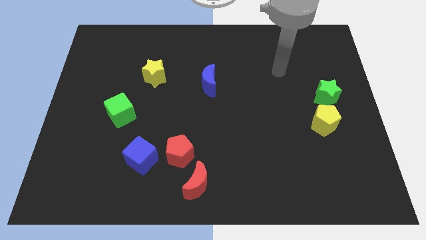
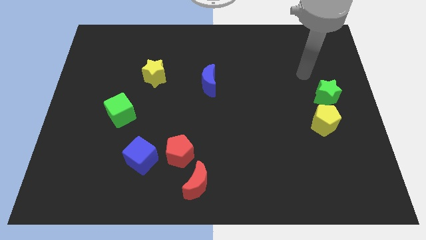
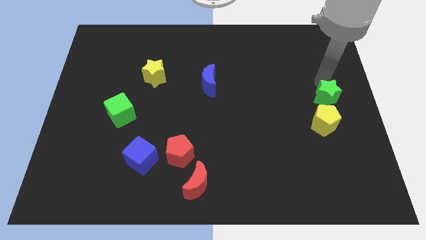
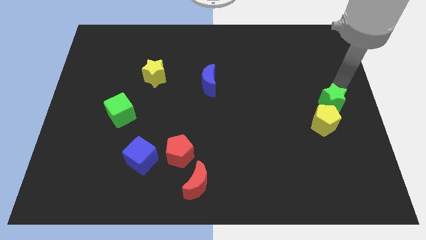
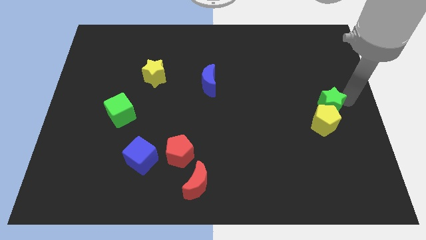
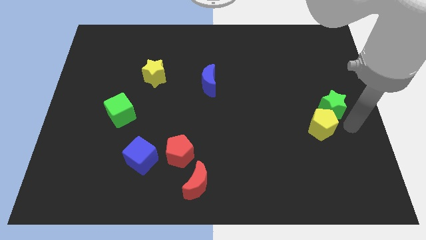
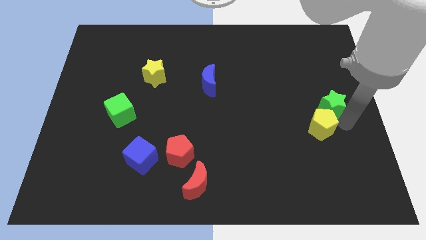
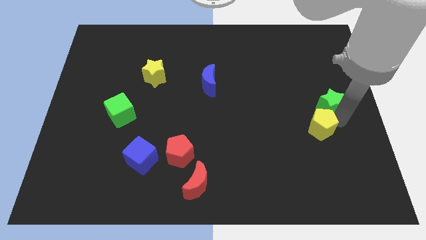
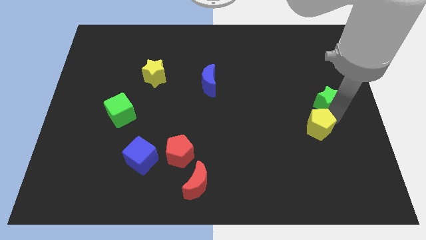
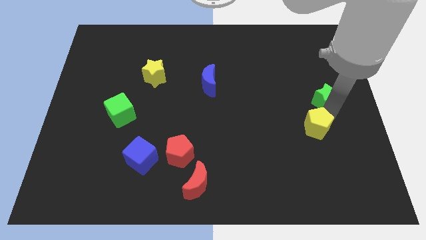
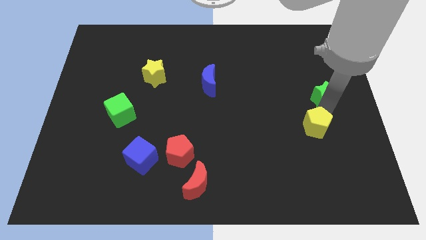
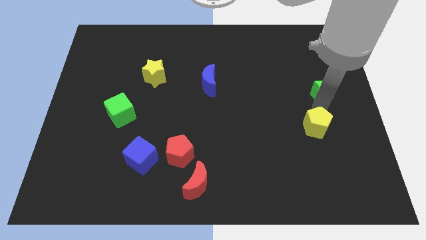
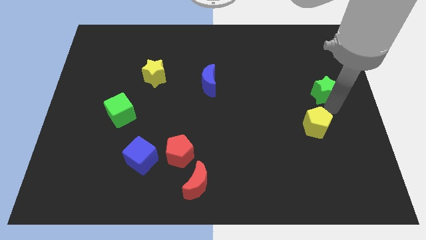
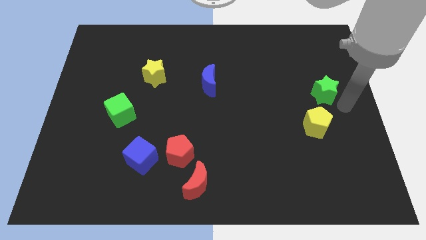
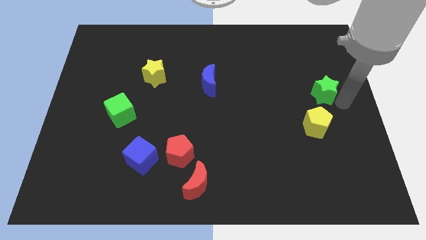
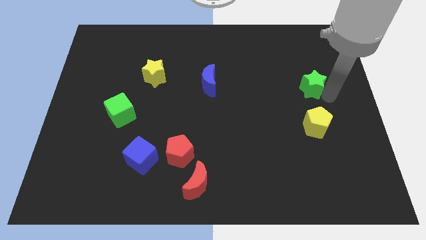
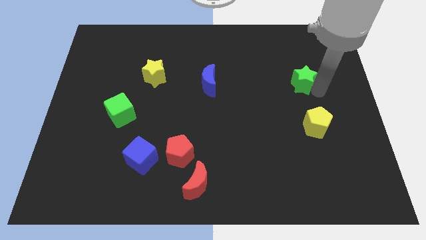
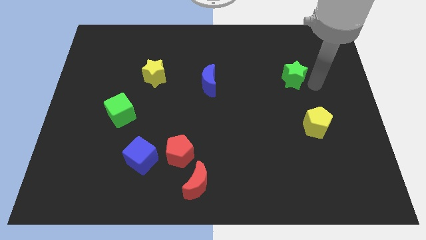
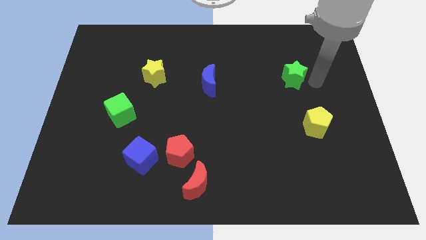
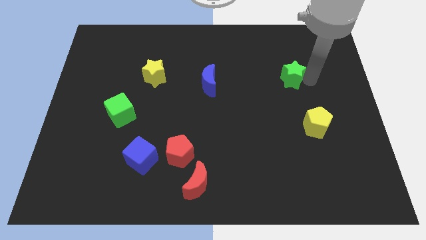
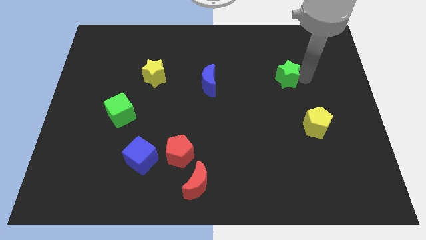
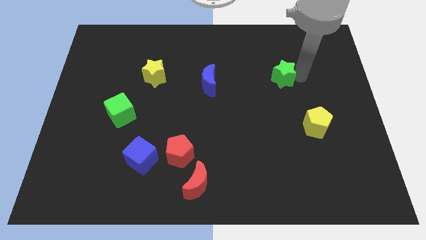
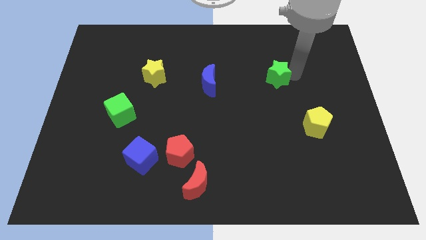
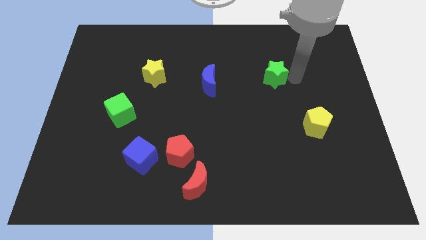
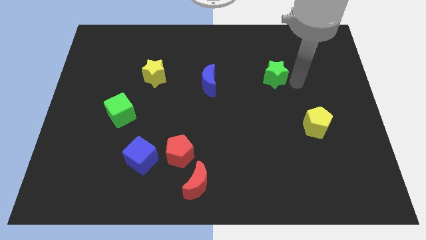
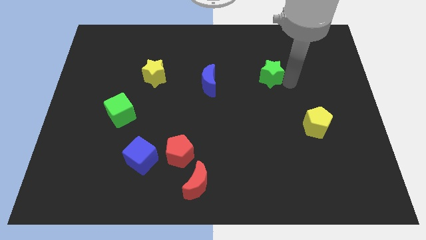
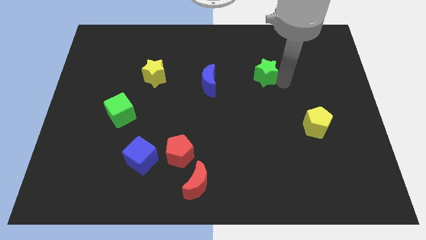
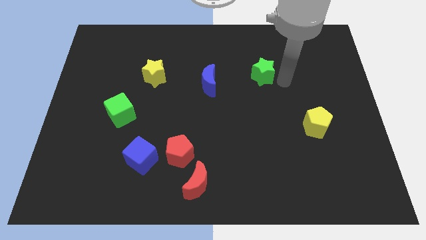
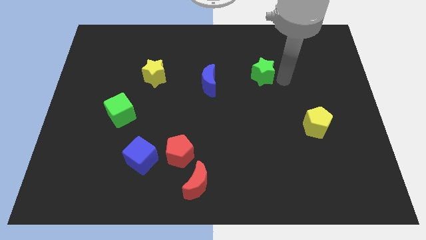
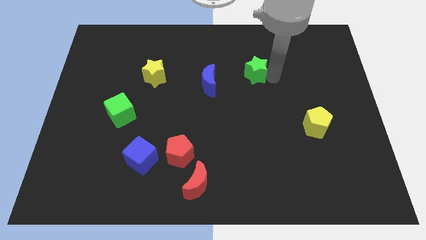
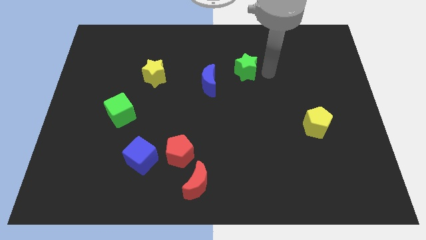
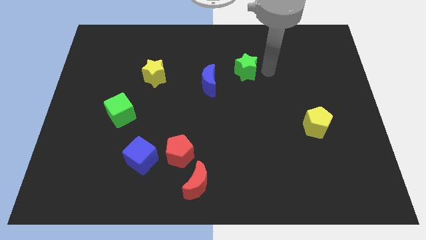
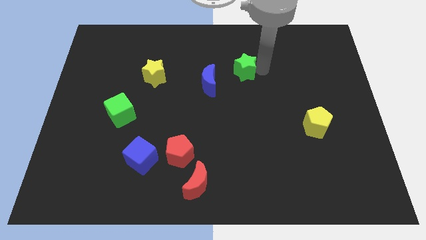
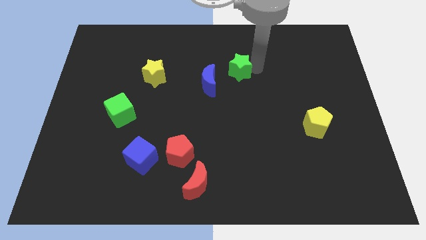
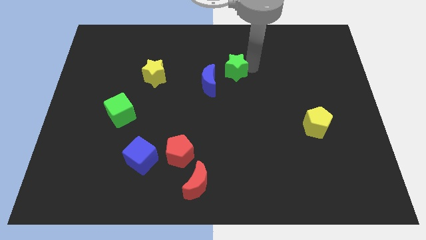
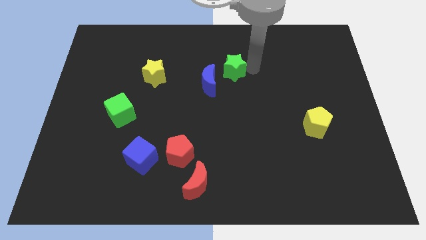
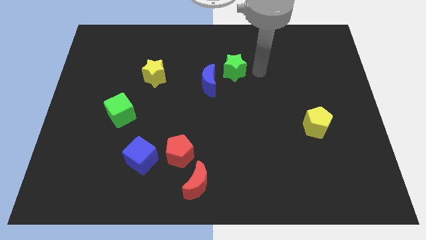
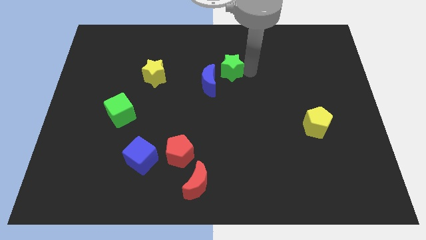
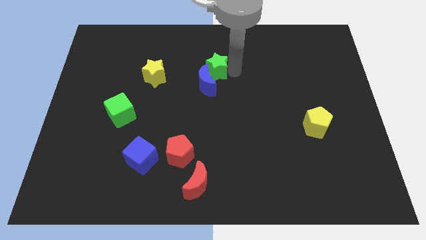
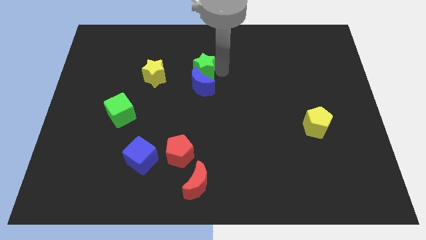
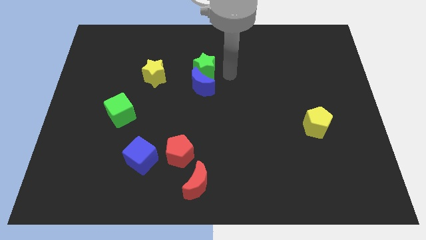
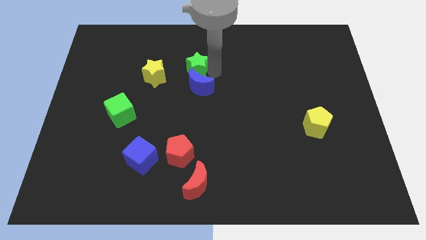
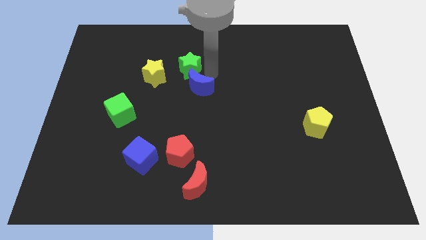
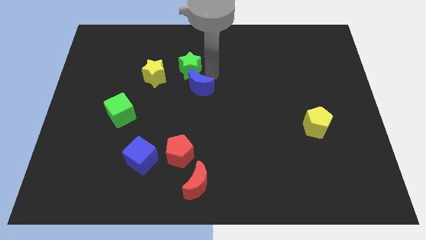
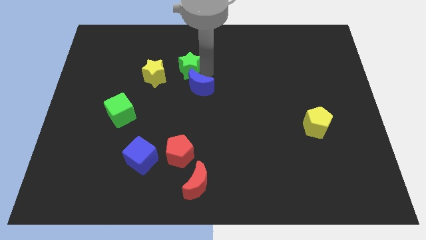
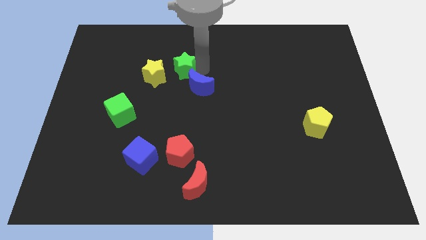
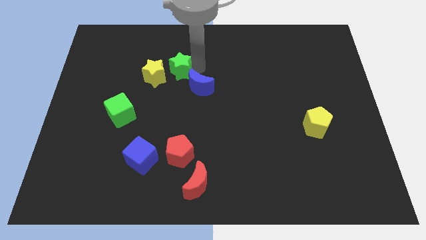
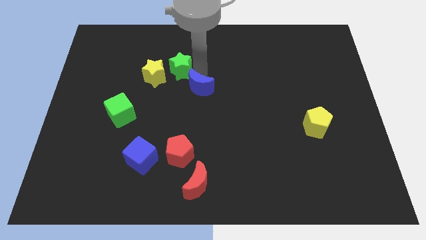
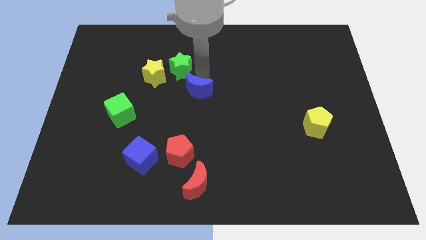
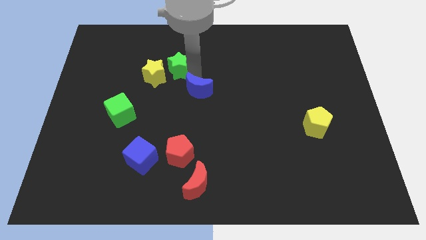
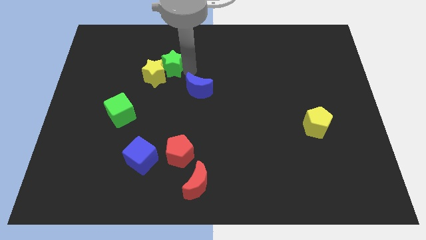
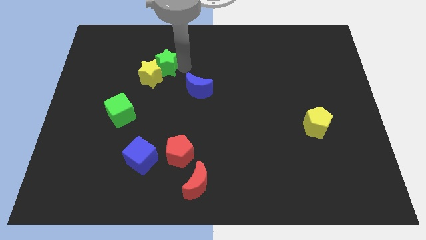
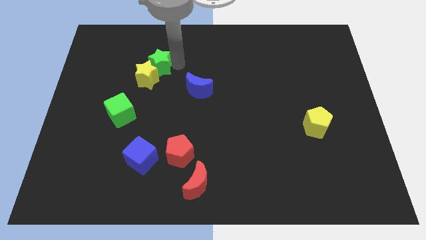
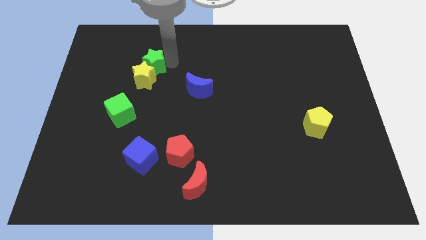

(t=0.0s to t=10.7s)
put the green star to the top left side of the yellow star

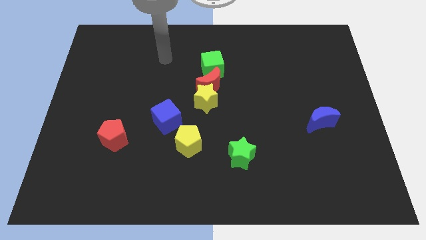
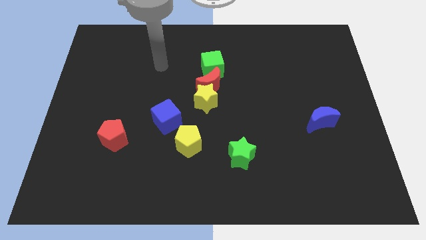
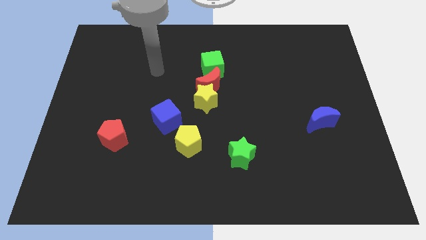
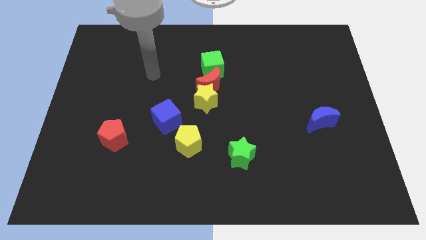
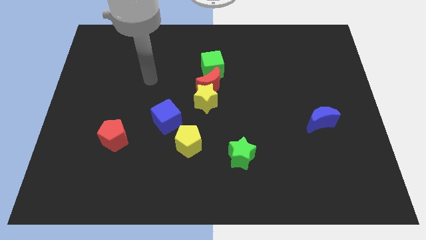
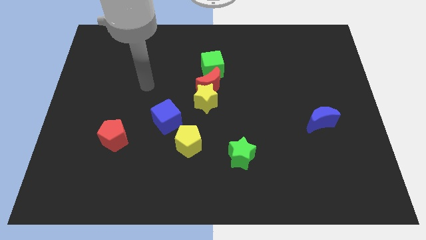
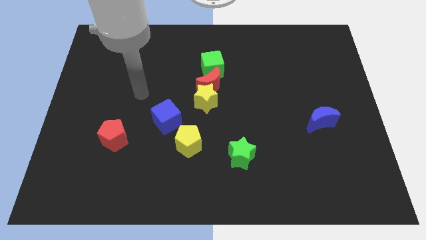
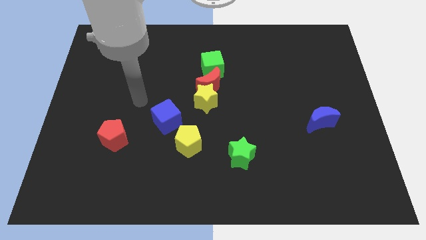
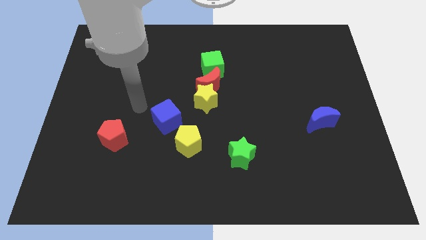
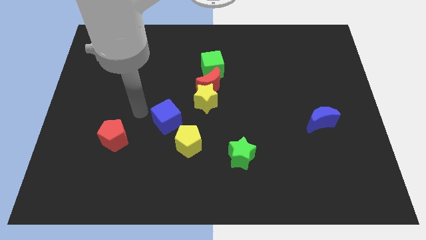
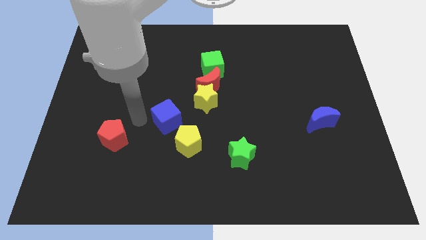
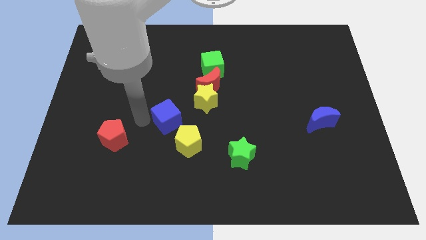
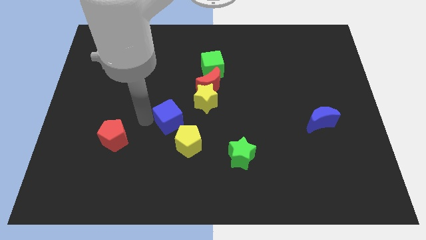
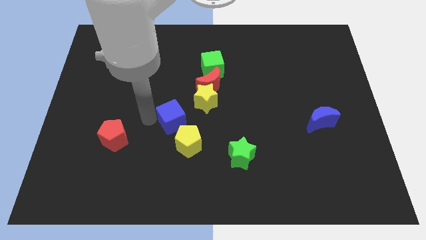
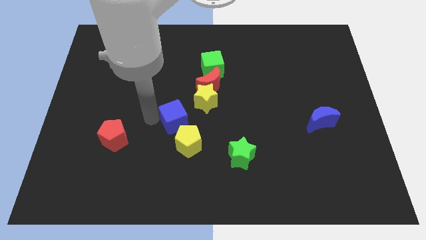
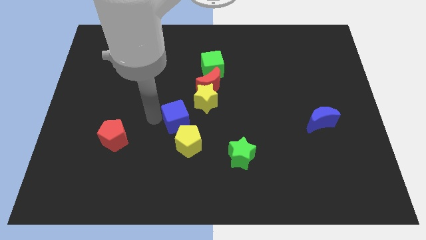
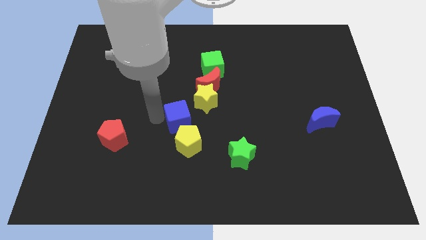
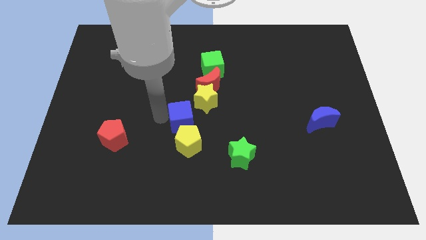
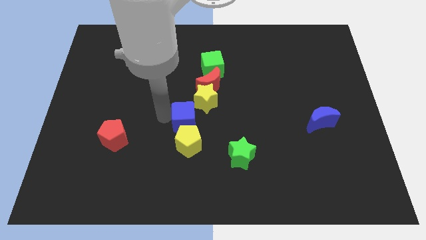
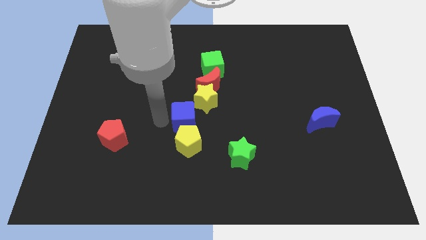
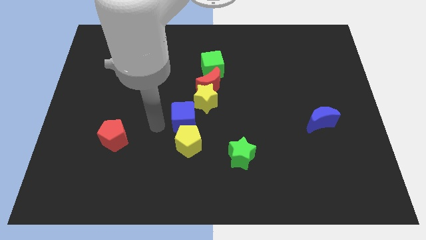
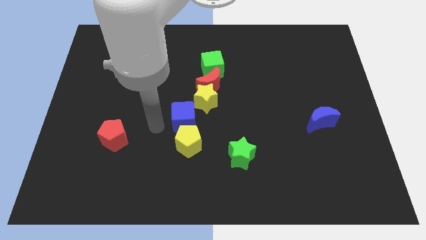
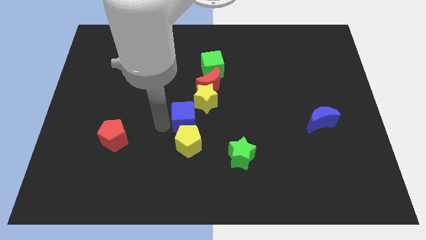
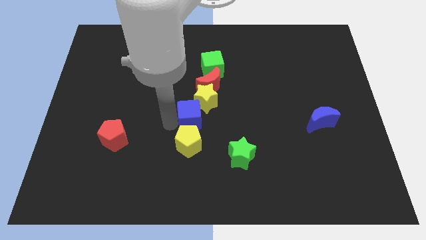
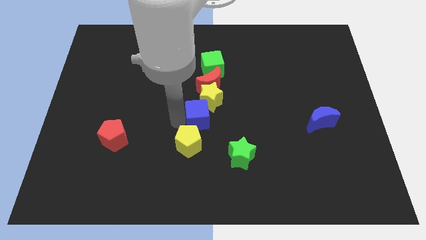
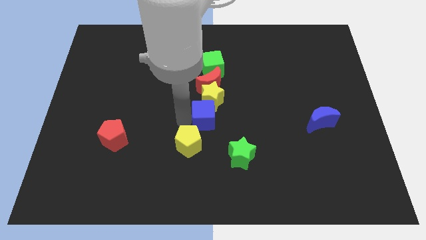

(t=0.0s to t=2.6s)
push the blue cube below the green cube

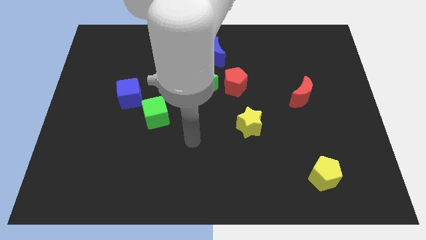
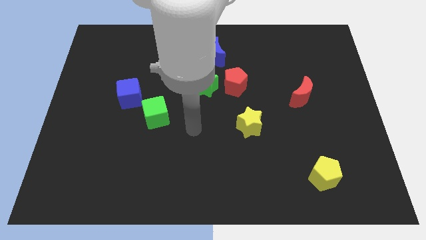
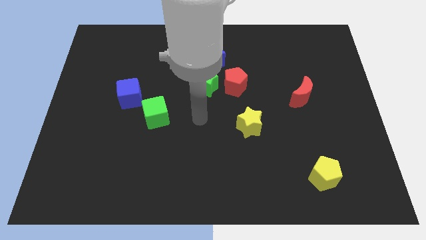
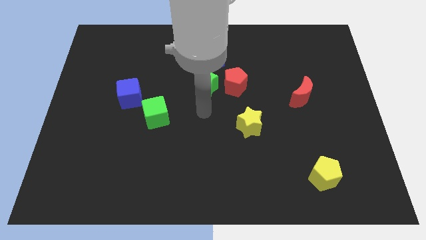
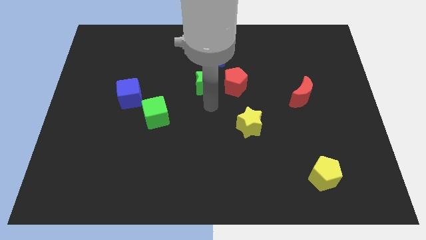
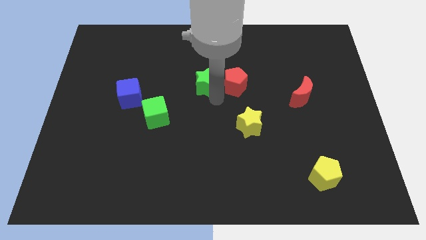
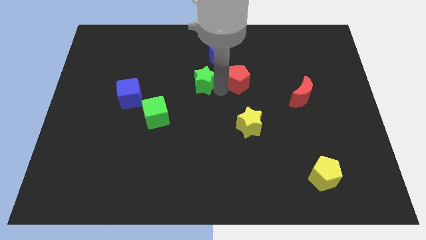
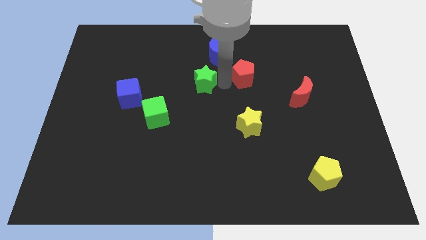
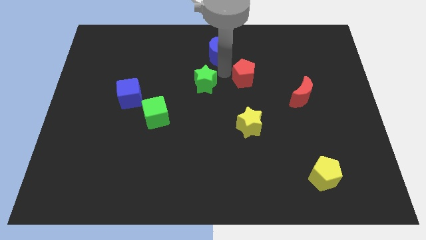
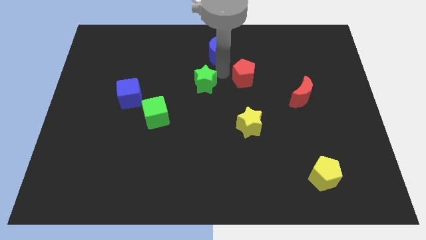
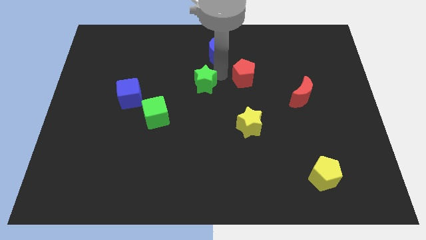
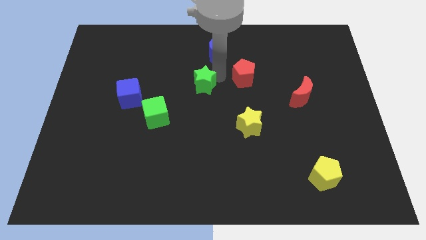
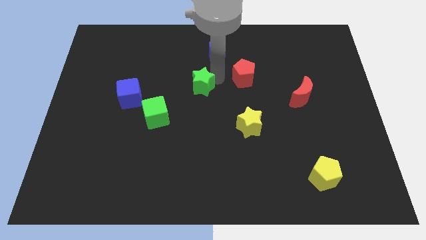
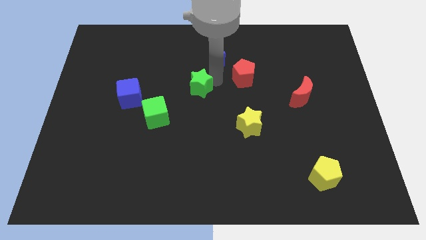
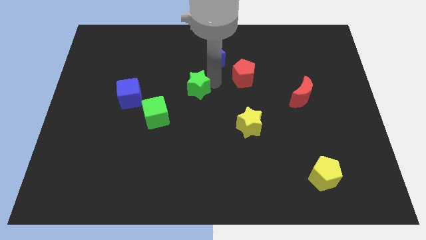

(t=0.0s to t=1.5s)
move the green star to the top right side of the green cube
